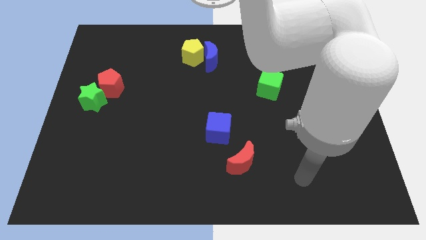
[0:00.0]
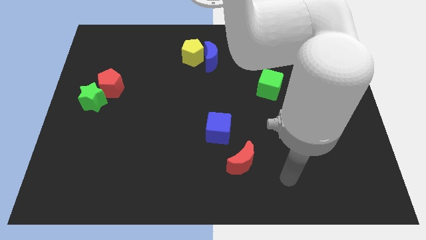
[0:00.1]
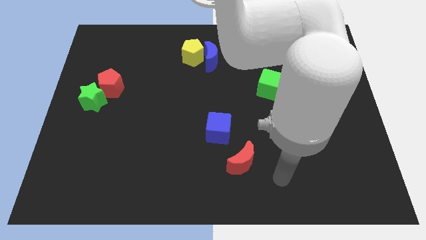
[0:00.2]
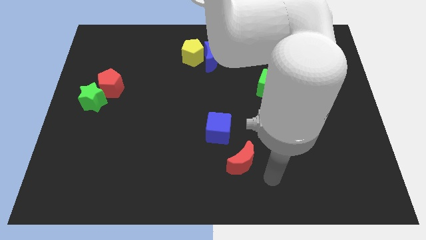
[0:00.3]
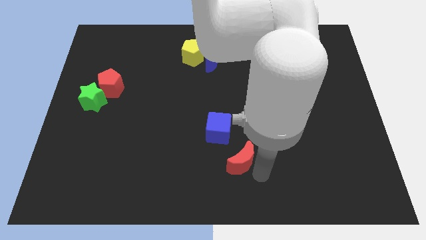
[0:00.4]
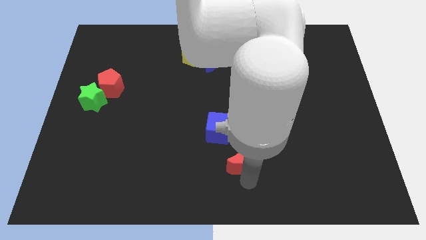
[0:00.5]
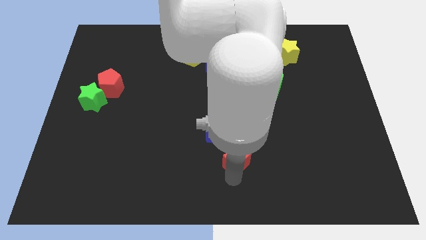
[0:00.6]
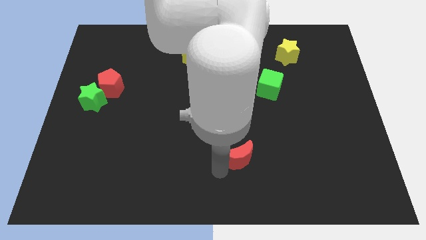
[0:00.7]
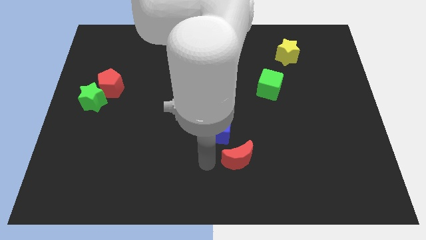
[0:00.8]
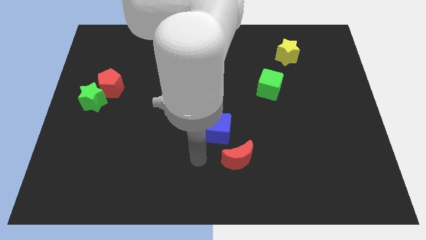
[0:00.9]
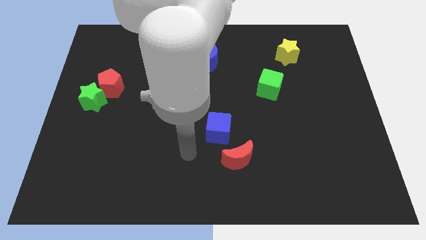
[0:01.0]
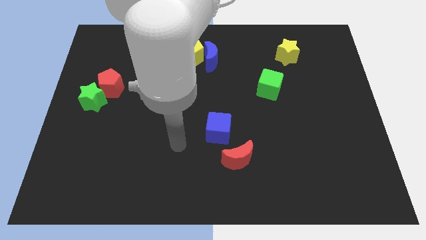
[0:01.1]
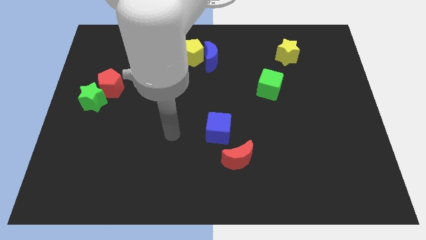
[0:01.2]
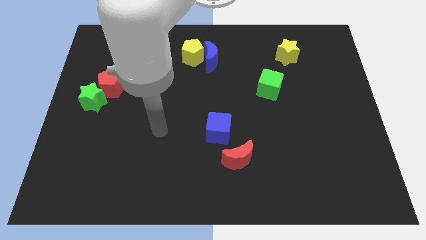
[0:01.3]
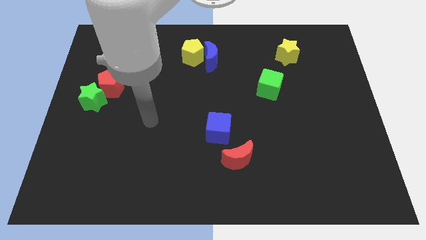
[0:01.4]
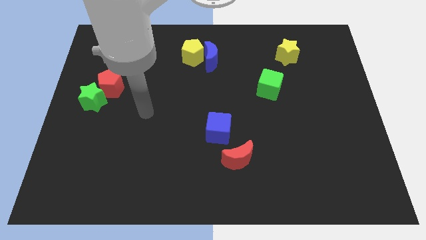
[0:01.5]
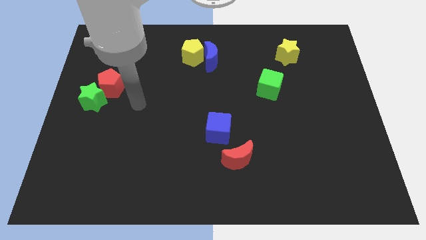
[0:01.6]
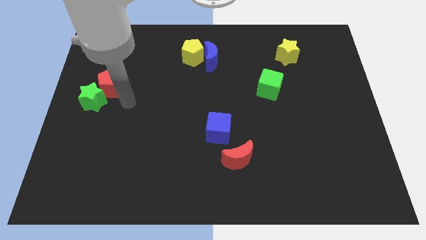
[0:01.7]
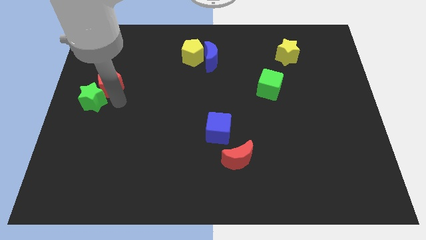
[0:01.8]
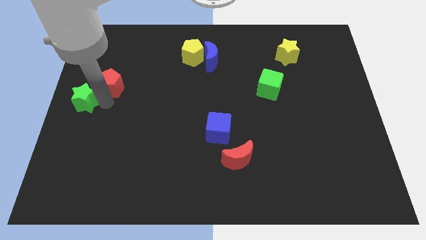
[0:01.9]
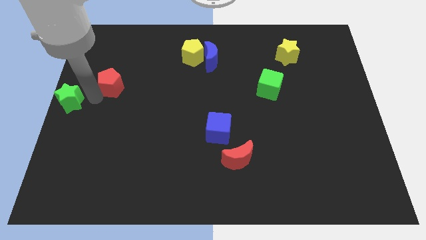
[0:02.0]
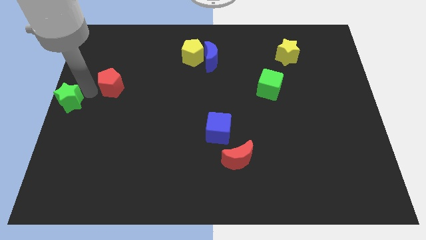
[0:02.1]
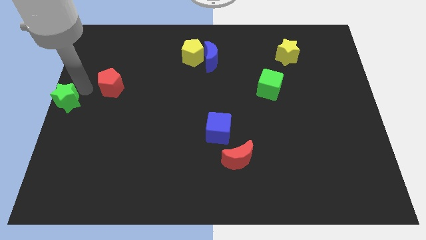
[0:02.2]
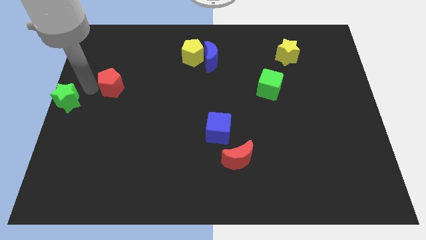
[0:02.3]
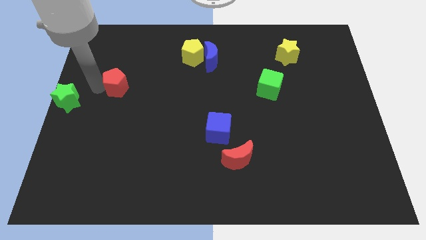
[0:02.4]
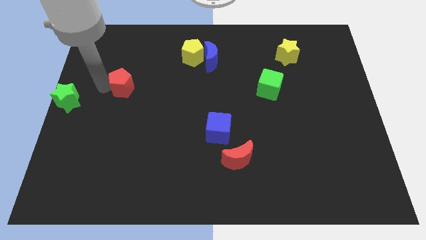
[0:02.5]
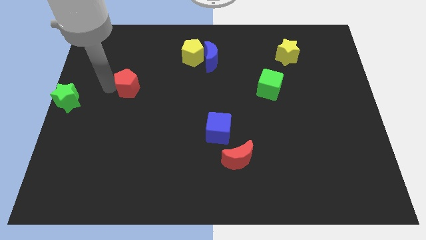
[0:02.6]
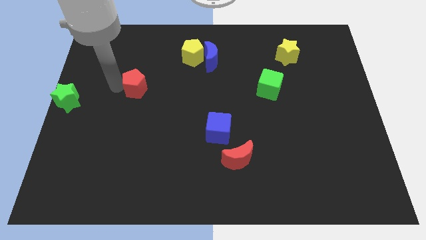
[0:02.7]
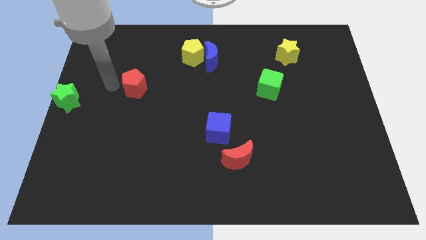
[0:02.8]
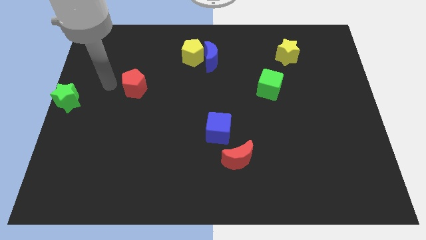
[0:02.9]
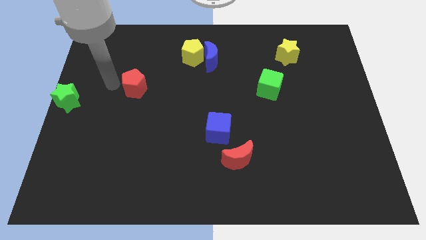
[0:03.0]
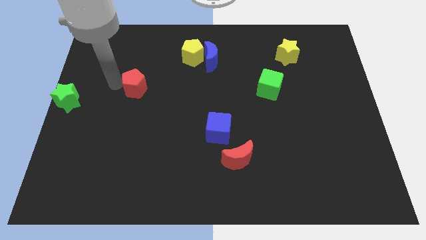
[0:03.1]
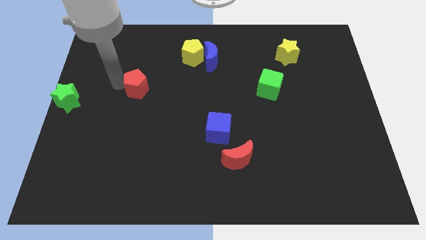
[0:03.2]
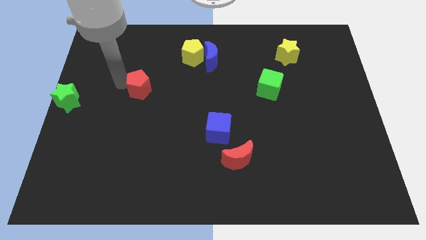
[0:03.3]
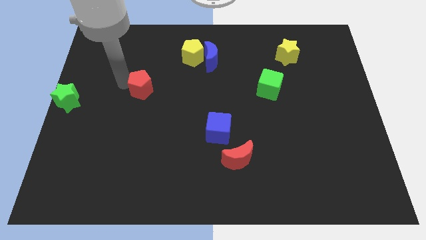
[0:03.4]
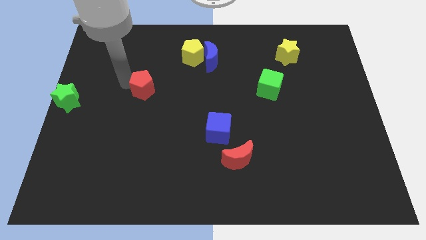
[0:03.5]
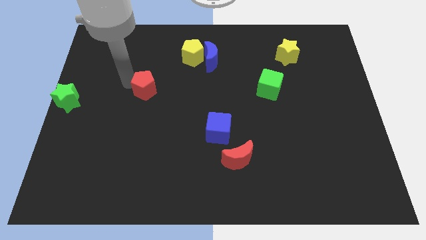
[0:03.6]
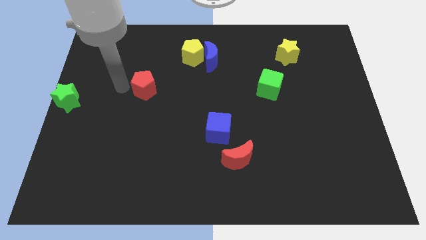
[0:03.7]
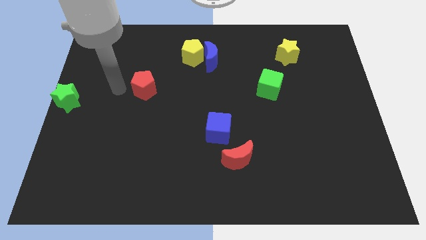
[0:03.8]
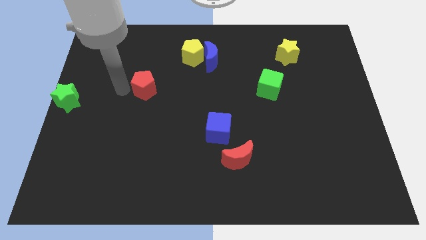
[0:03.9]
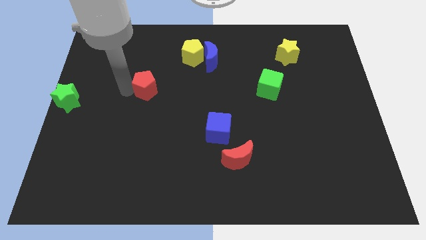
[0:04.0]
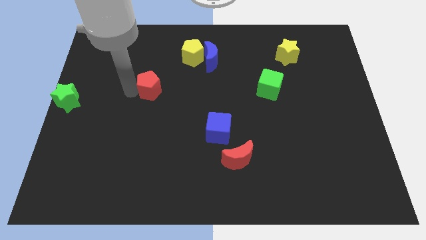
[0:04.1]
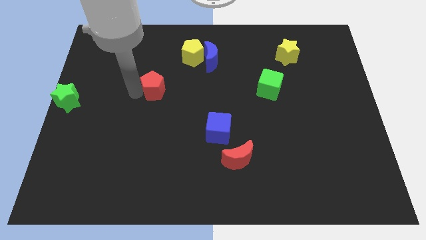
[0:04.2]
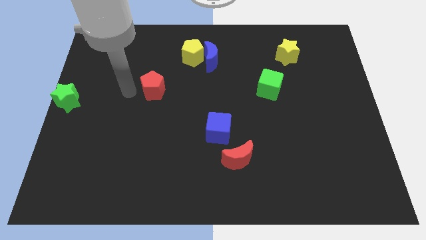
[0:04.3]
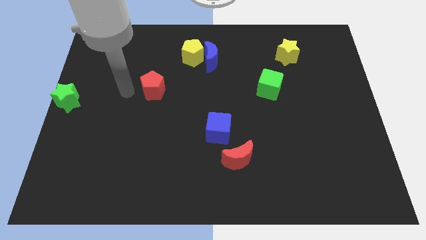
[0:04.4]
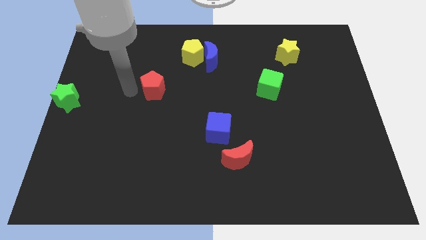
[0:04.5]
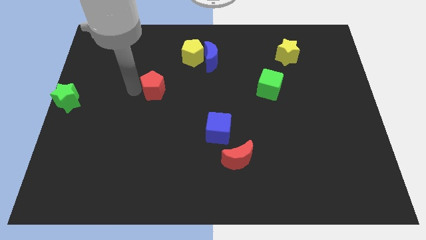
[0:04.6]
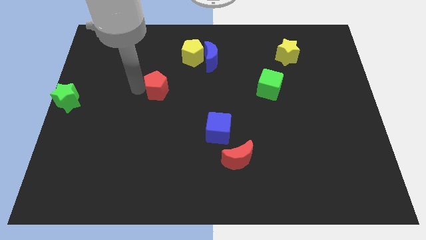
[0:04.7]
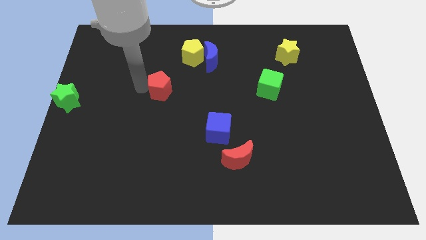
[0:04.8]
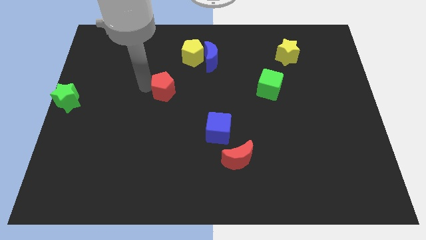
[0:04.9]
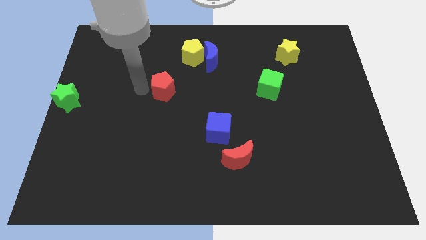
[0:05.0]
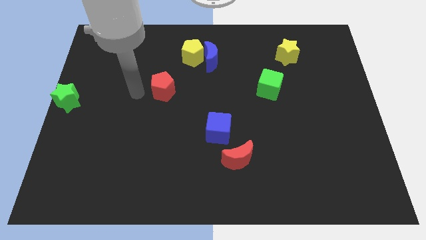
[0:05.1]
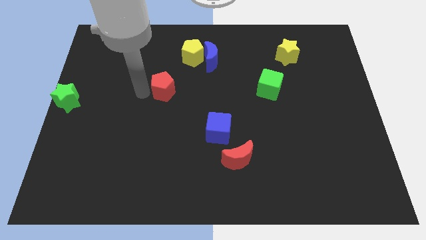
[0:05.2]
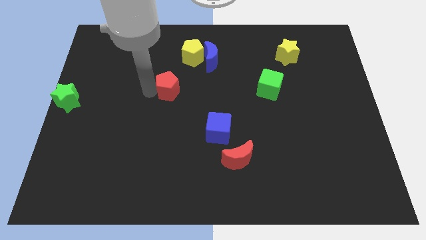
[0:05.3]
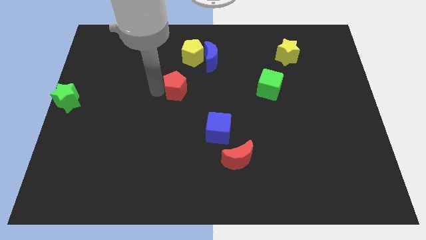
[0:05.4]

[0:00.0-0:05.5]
slide the red pentagon below the yellow pentagon

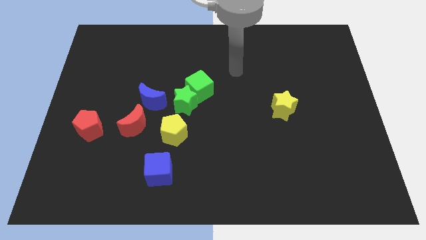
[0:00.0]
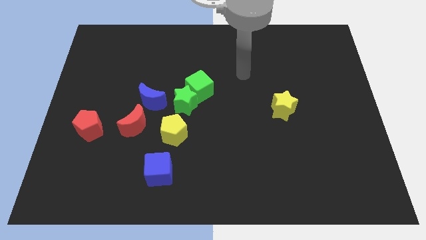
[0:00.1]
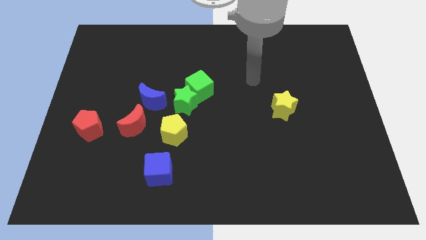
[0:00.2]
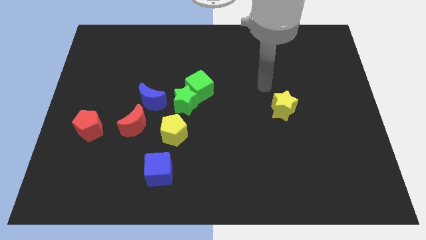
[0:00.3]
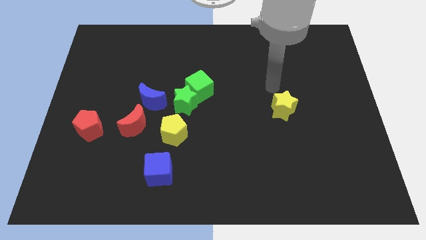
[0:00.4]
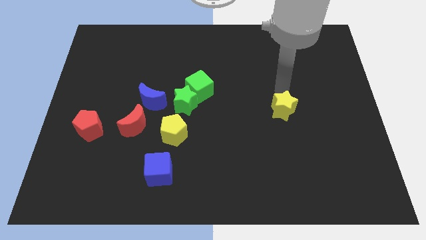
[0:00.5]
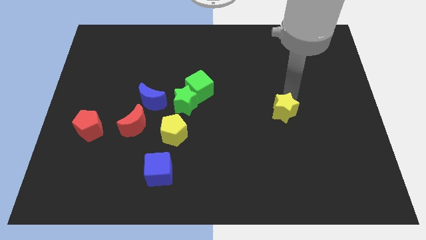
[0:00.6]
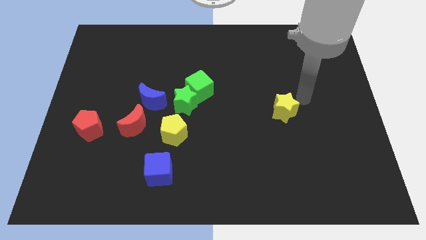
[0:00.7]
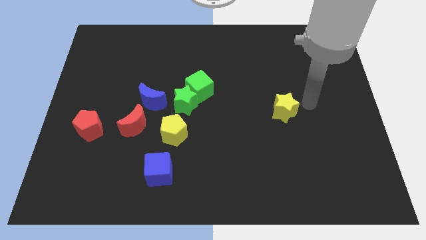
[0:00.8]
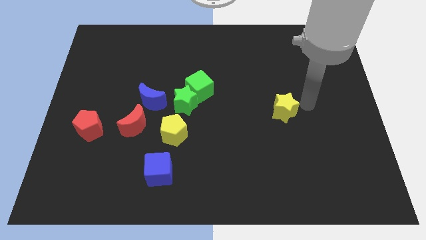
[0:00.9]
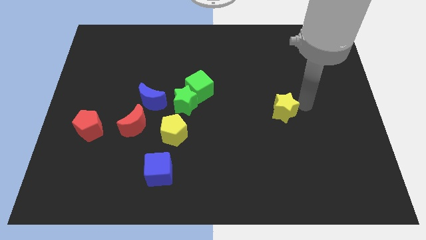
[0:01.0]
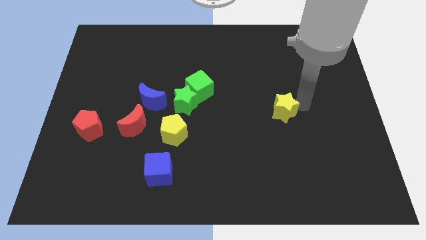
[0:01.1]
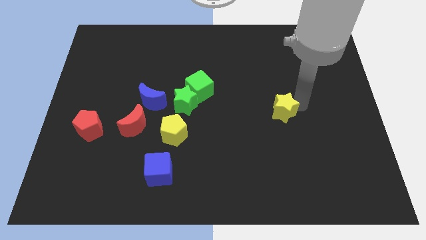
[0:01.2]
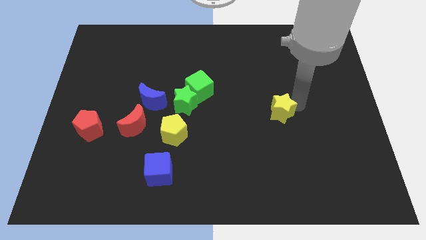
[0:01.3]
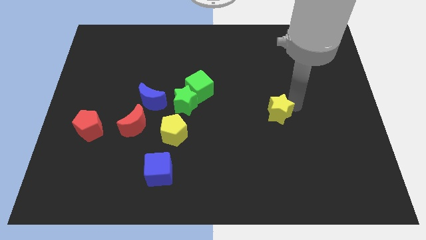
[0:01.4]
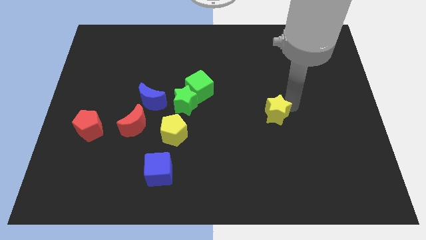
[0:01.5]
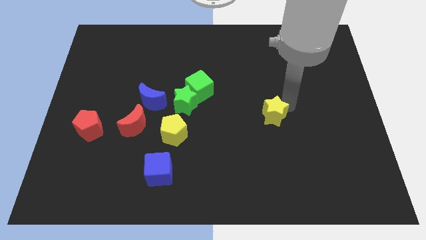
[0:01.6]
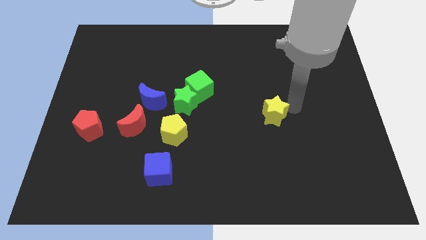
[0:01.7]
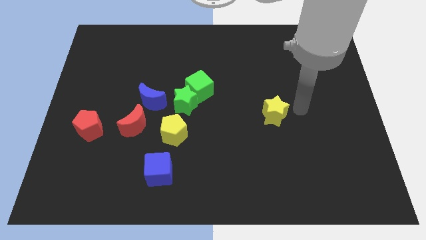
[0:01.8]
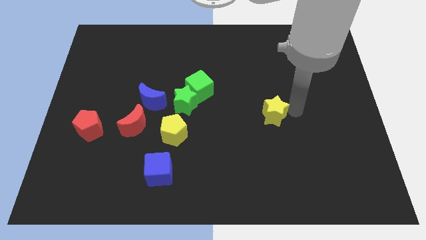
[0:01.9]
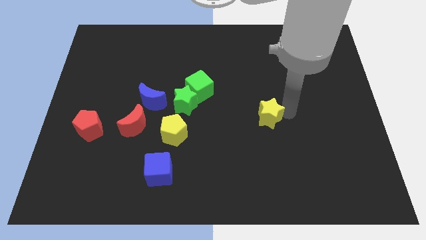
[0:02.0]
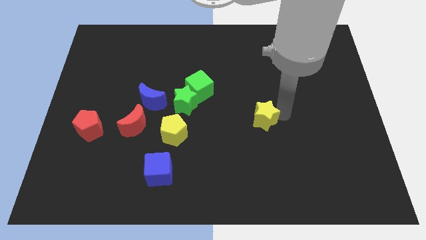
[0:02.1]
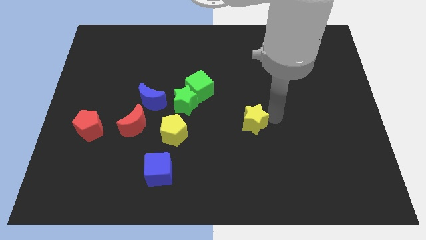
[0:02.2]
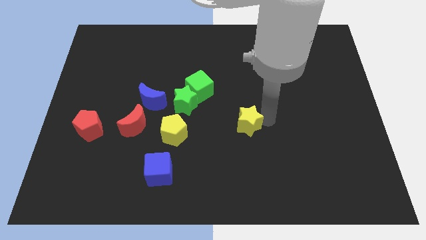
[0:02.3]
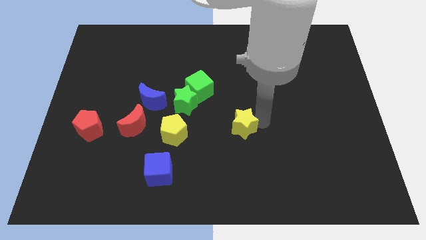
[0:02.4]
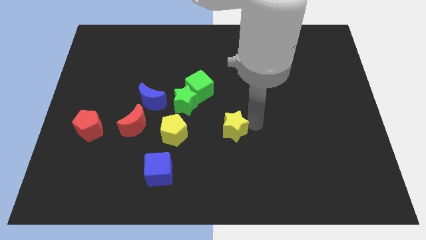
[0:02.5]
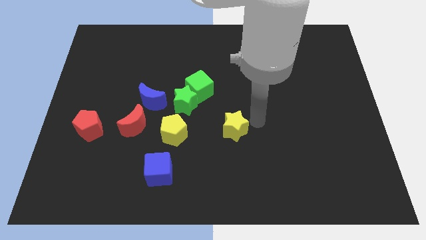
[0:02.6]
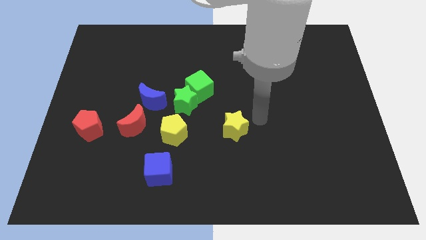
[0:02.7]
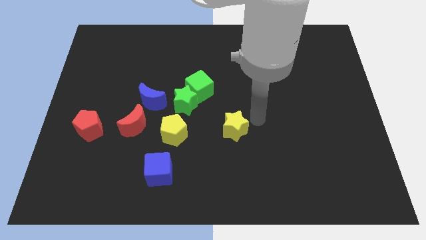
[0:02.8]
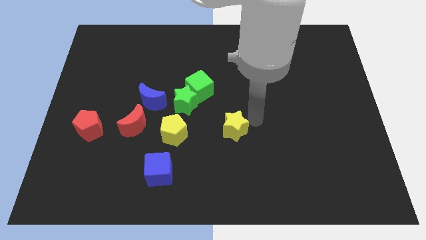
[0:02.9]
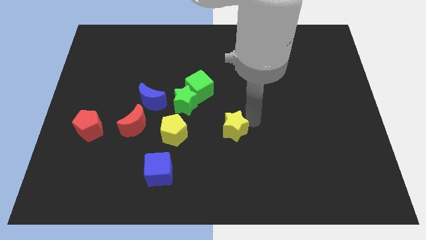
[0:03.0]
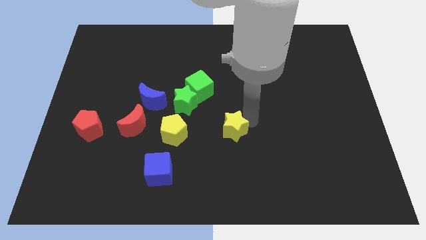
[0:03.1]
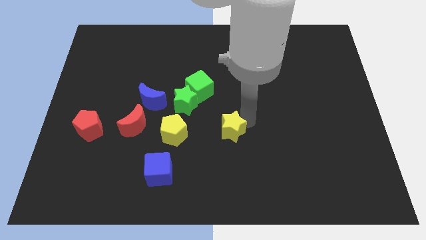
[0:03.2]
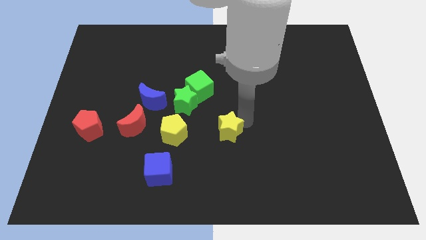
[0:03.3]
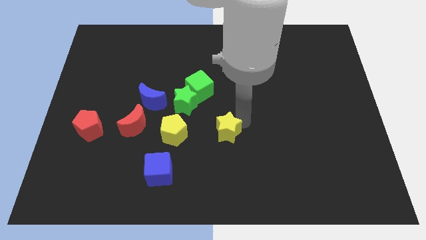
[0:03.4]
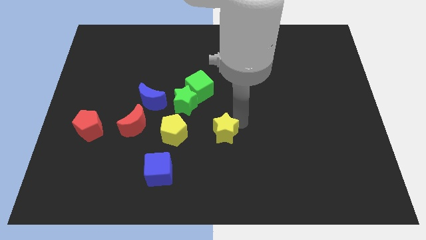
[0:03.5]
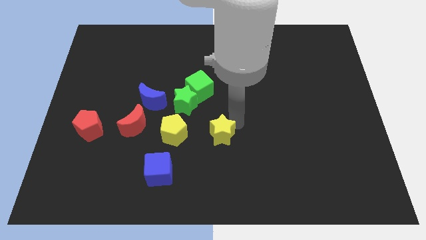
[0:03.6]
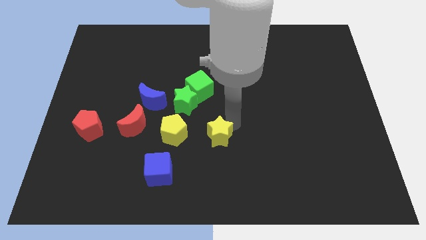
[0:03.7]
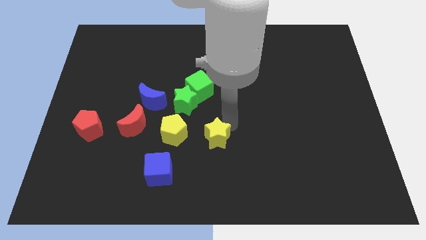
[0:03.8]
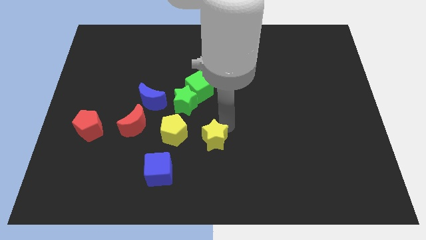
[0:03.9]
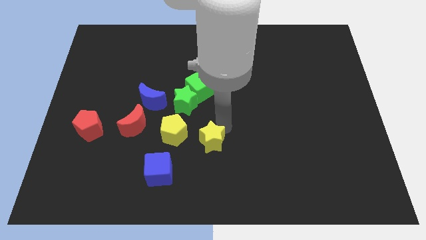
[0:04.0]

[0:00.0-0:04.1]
put the yellow star diagonally down and to the right of the yellow pentagon
